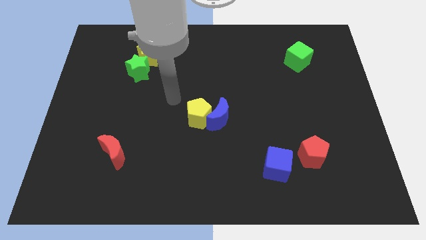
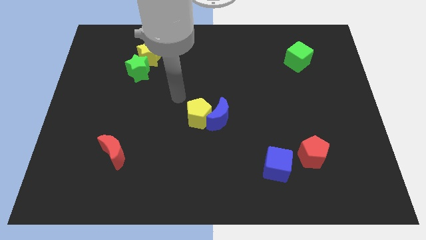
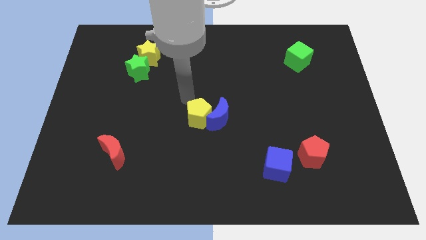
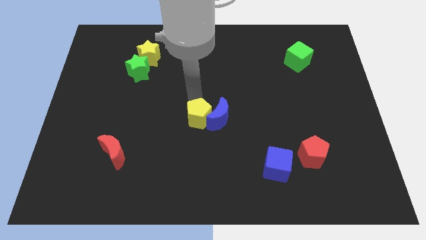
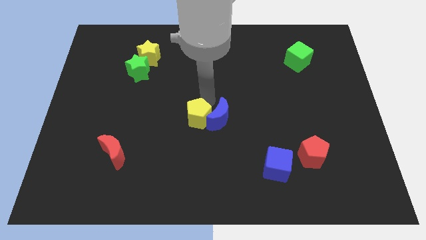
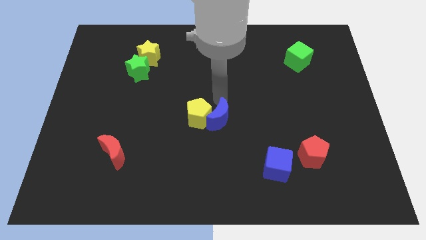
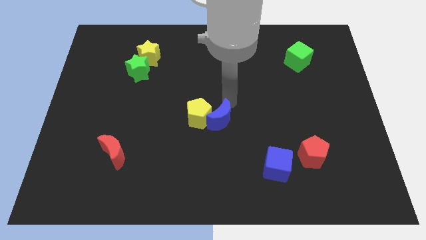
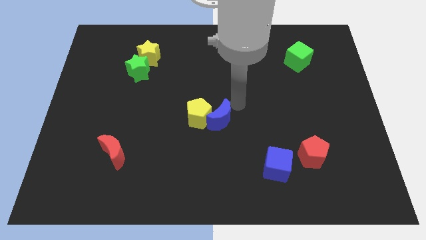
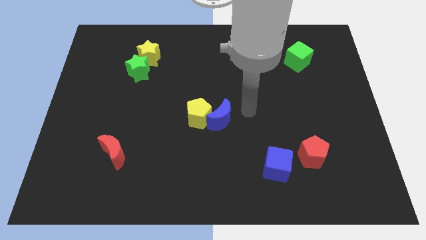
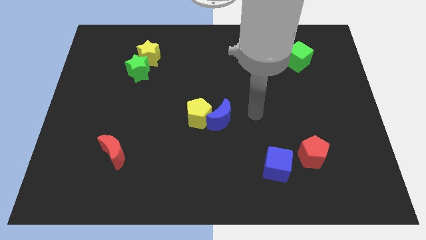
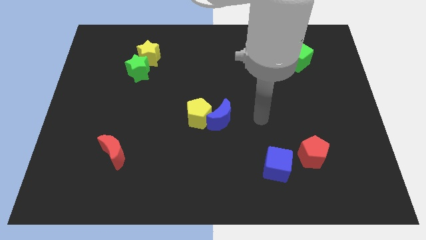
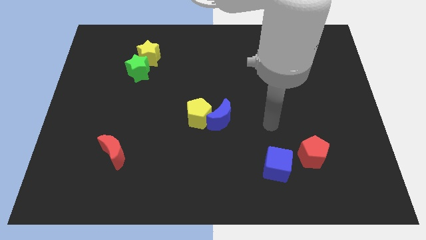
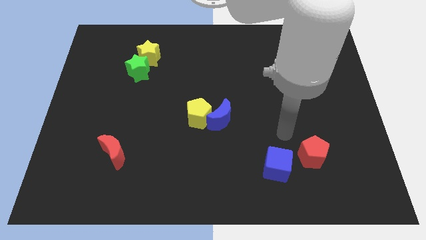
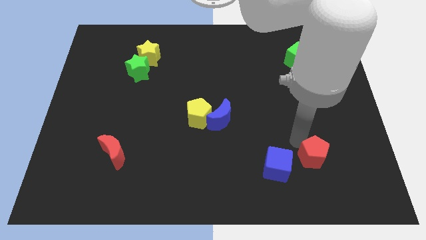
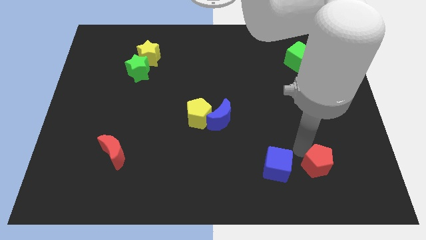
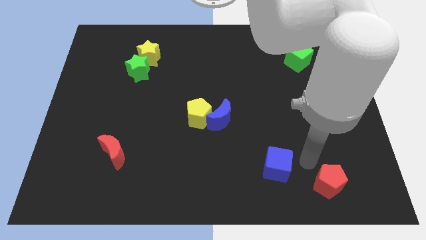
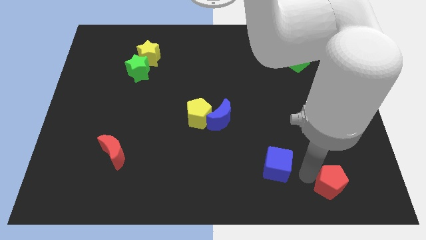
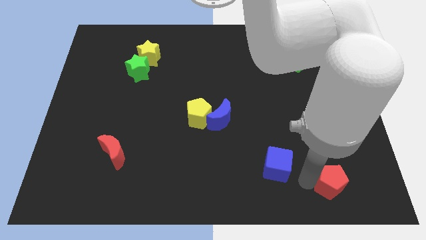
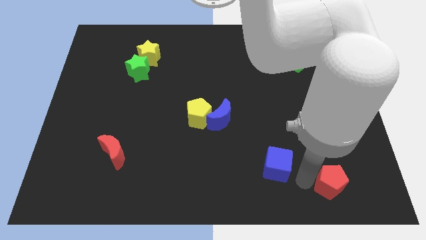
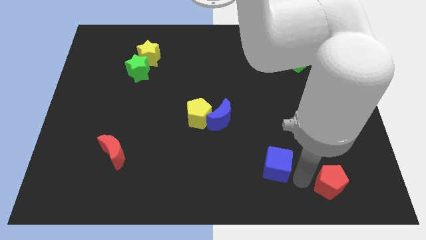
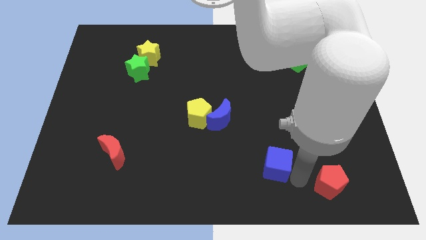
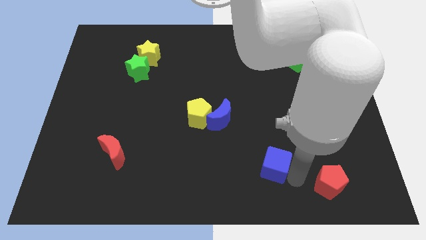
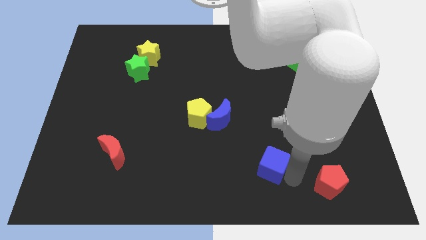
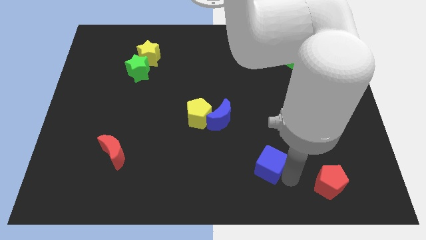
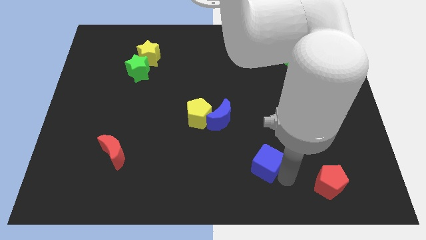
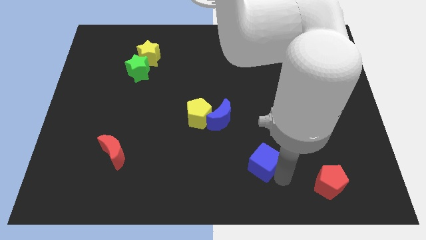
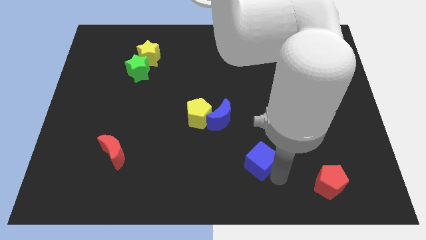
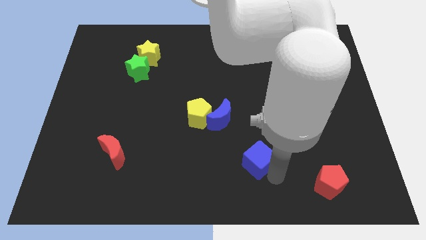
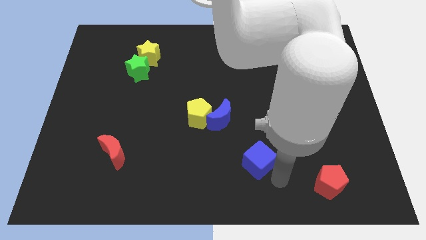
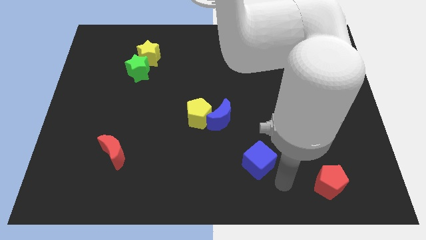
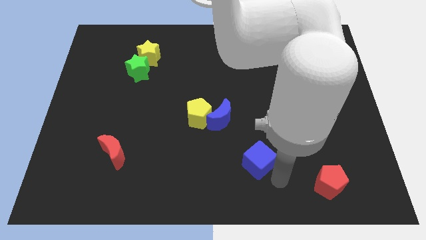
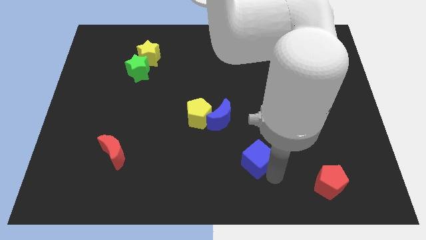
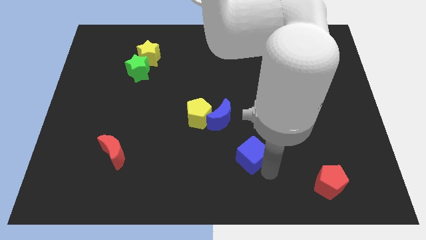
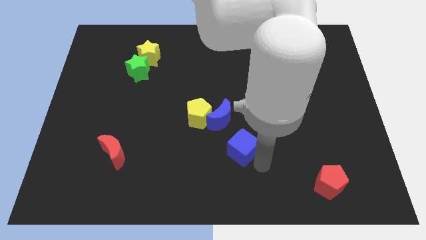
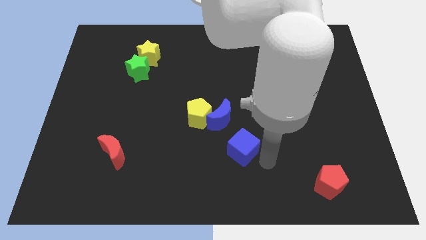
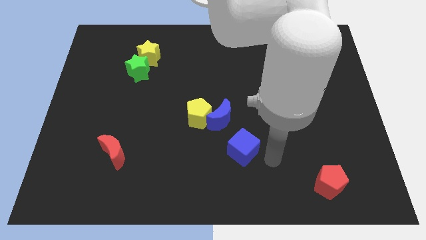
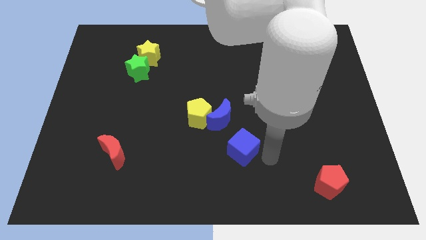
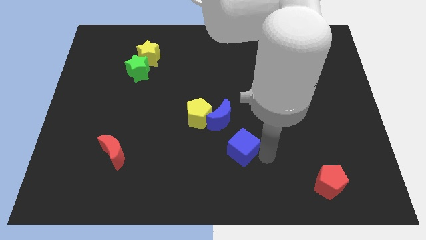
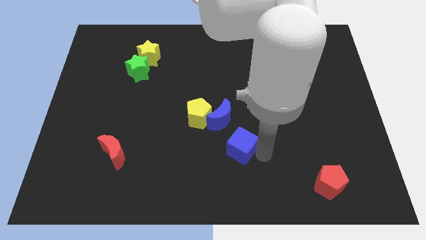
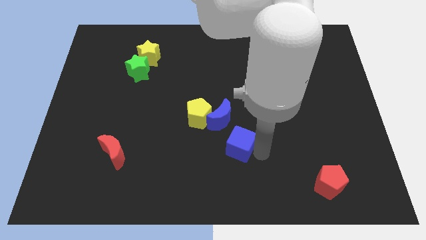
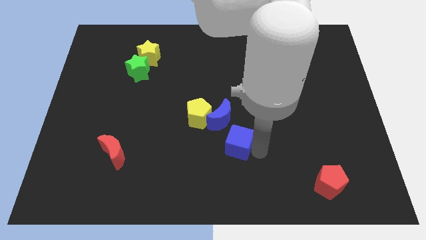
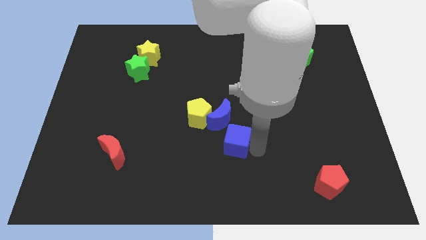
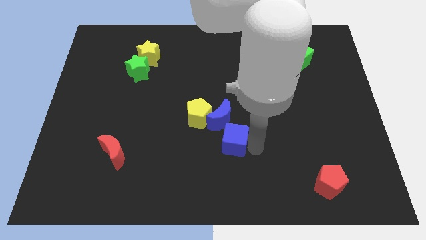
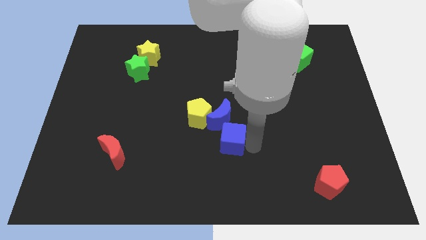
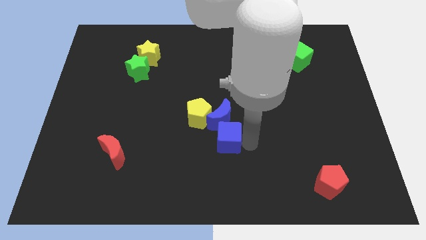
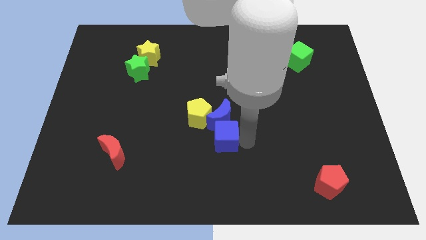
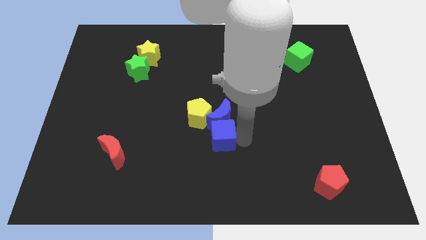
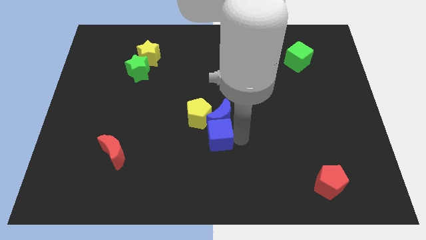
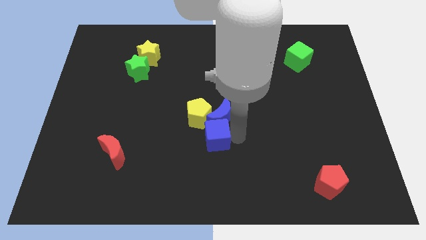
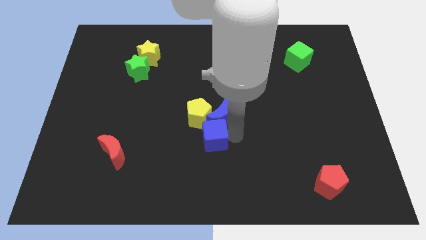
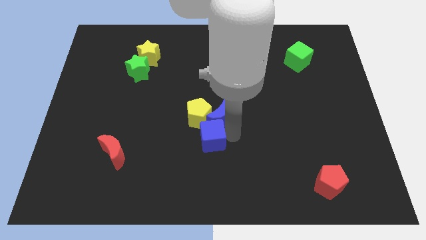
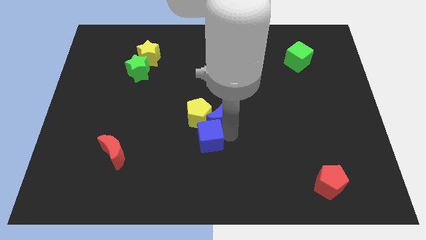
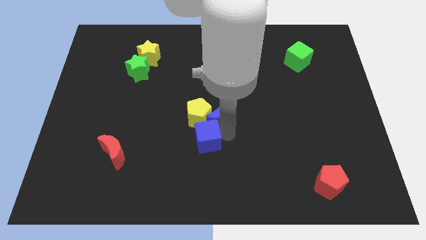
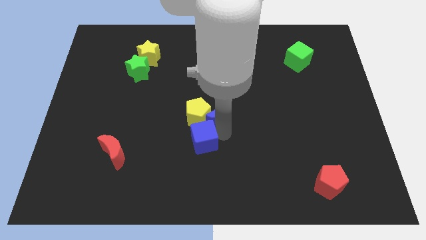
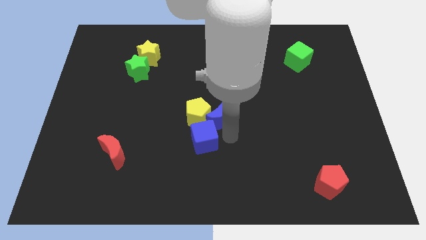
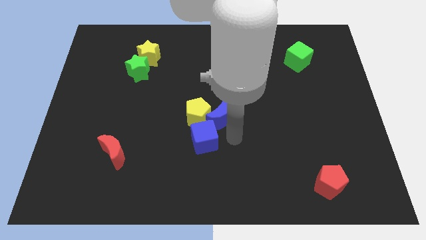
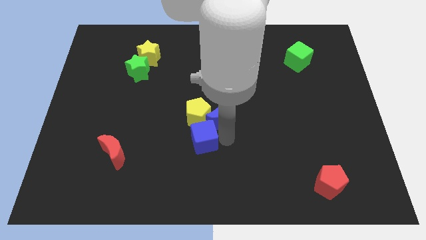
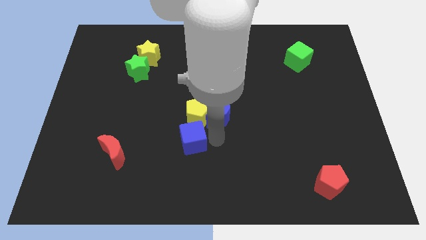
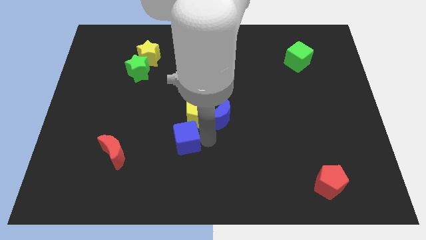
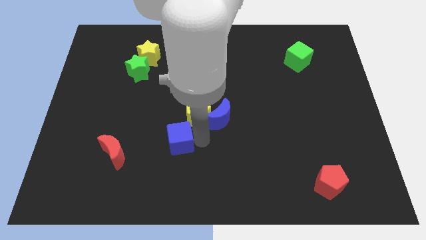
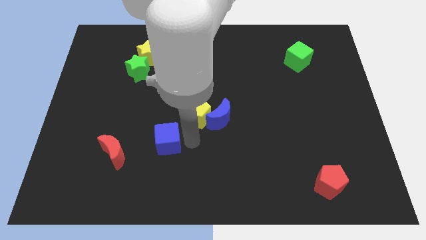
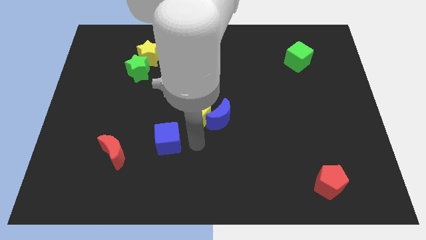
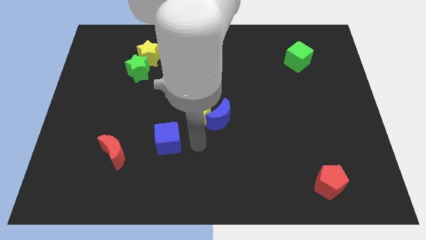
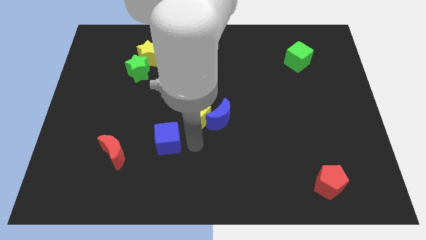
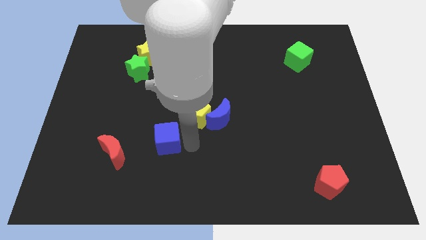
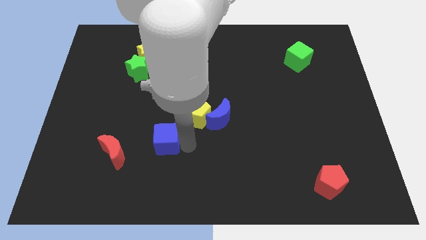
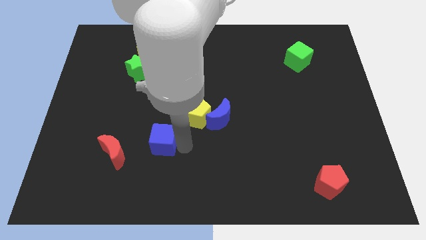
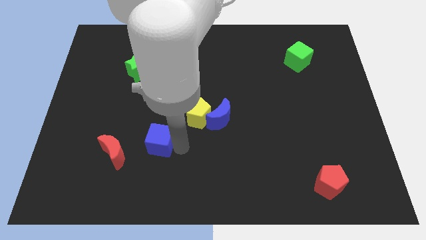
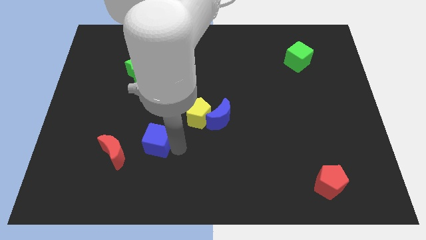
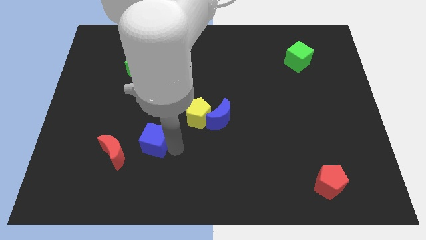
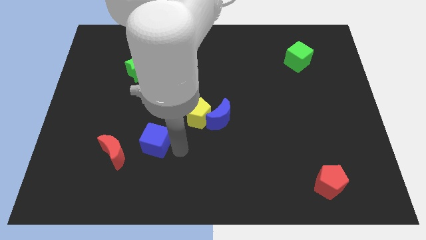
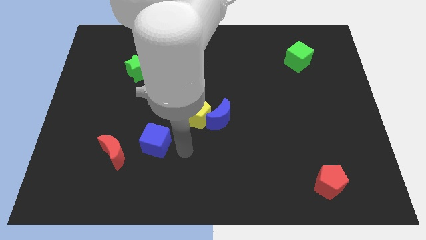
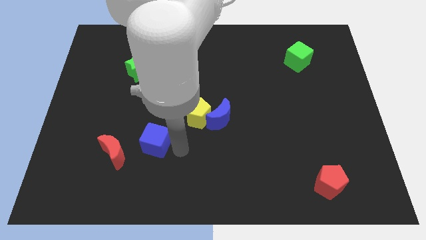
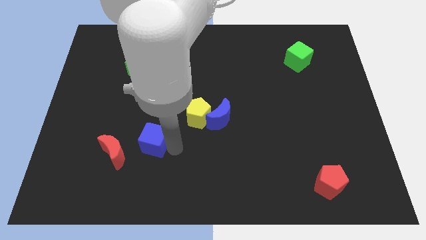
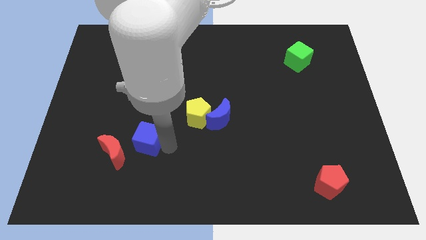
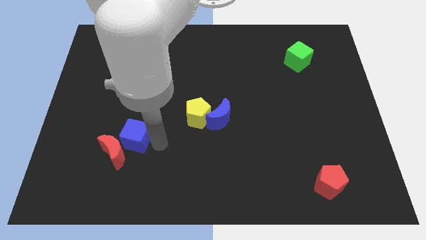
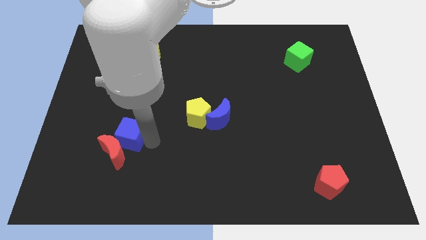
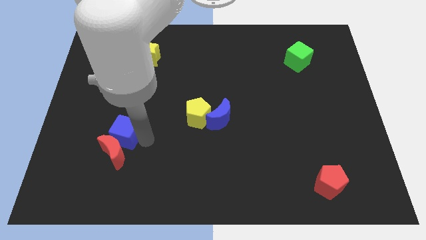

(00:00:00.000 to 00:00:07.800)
slide the blue cube to the top left side of the red moon
